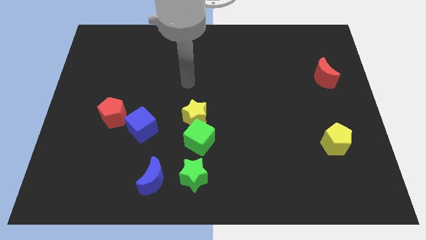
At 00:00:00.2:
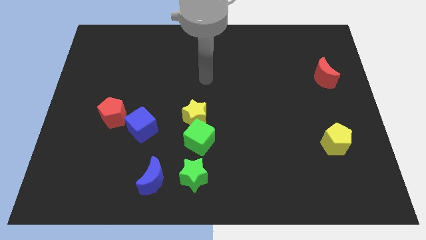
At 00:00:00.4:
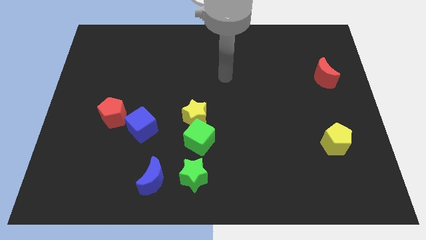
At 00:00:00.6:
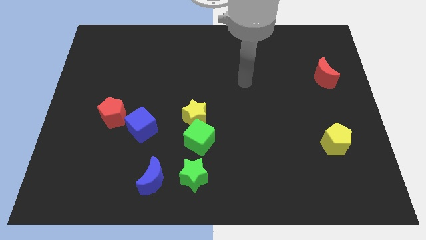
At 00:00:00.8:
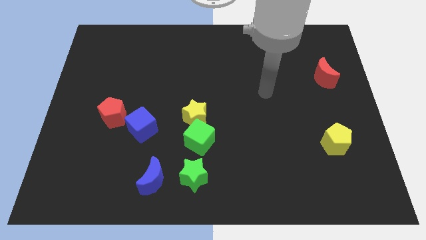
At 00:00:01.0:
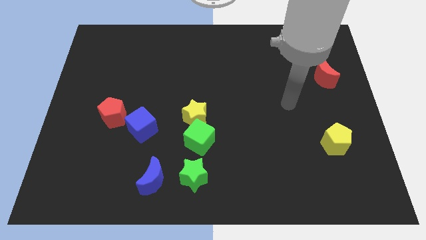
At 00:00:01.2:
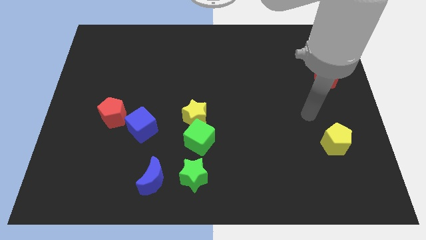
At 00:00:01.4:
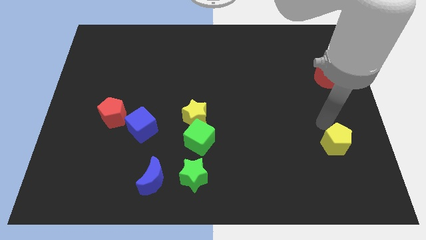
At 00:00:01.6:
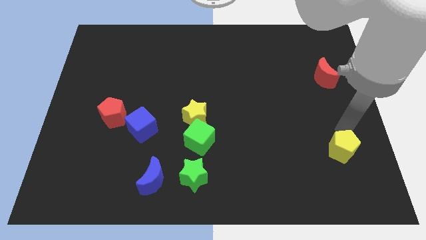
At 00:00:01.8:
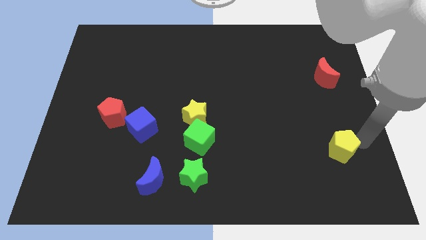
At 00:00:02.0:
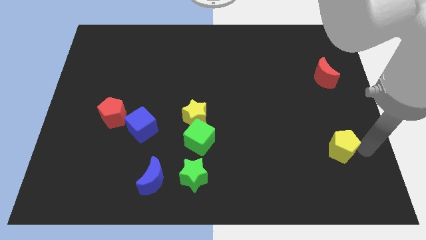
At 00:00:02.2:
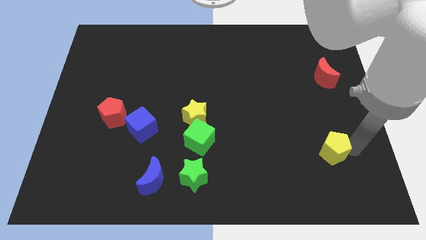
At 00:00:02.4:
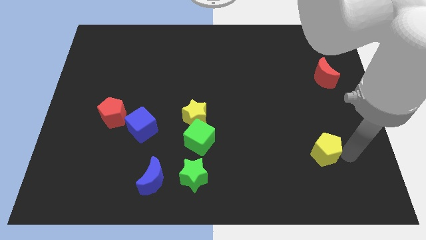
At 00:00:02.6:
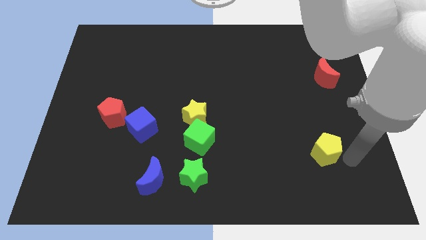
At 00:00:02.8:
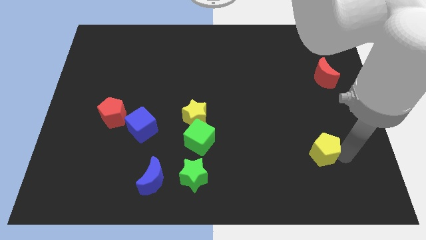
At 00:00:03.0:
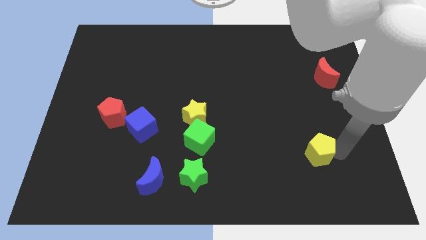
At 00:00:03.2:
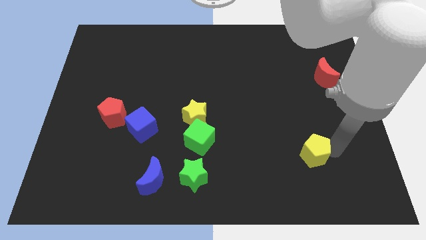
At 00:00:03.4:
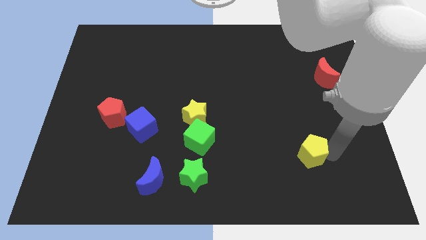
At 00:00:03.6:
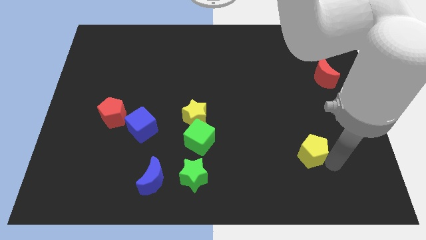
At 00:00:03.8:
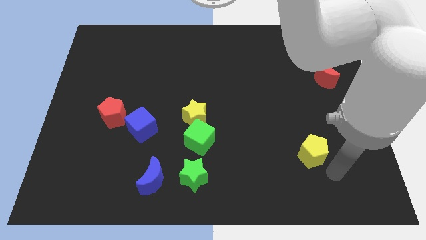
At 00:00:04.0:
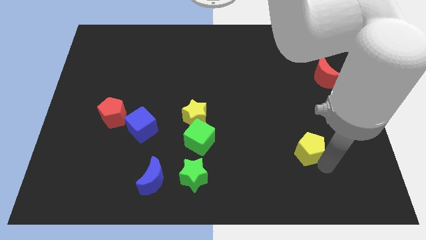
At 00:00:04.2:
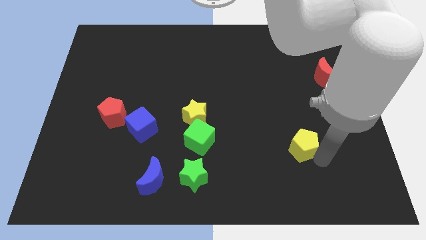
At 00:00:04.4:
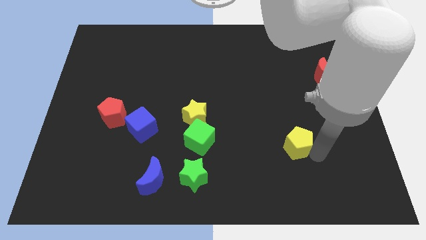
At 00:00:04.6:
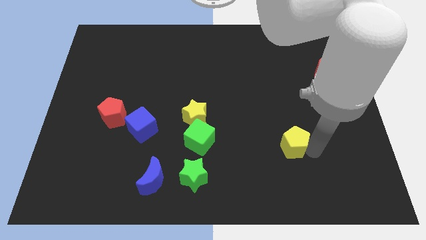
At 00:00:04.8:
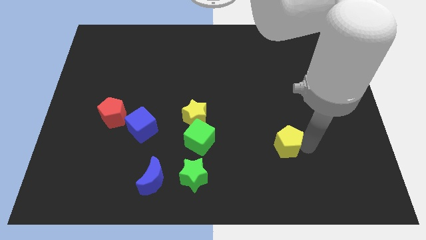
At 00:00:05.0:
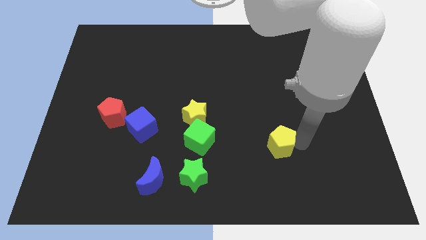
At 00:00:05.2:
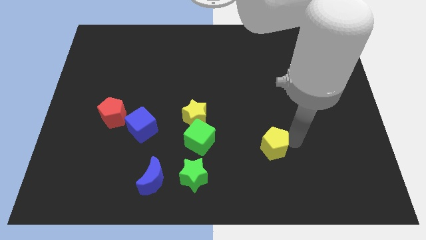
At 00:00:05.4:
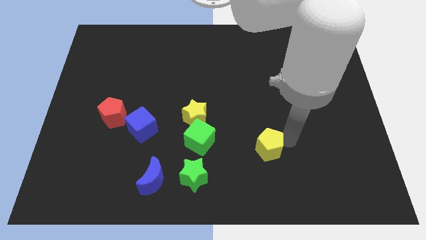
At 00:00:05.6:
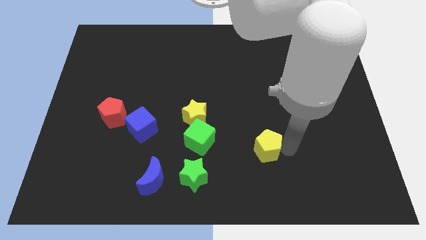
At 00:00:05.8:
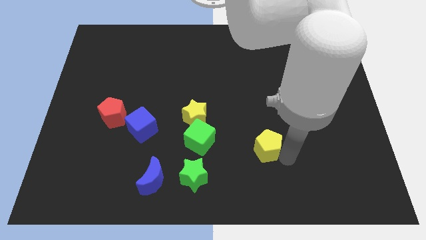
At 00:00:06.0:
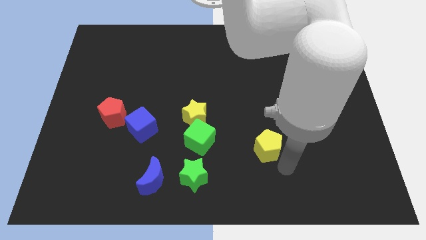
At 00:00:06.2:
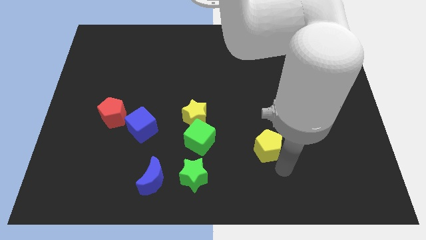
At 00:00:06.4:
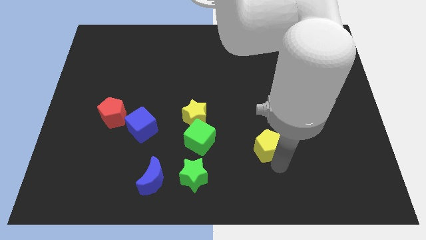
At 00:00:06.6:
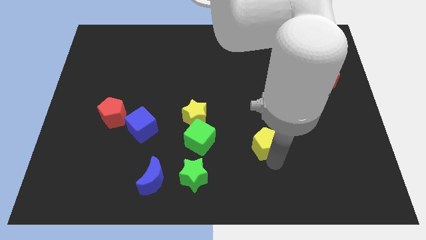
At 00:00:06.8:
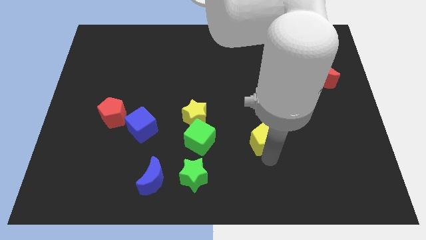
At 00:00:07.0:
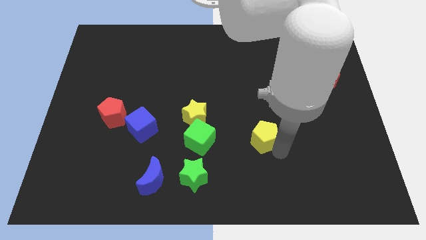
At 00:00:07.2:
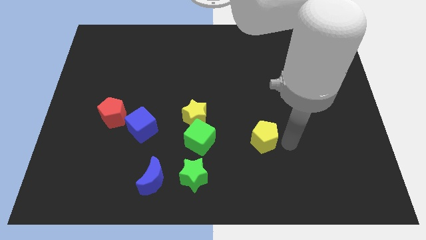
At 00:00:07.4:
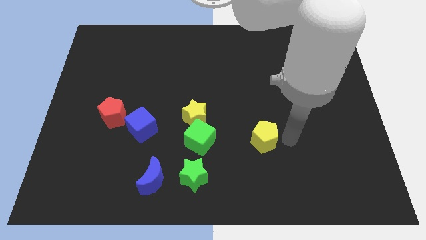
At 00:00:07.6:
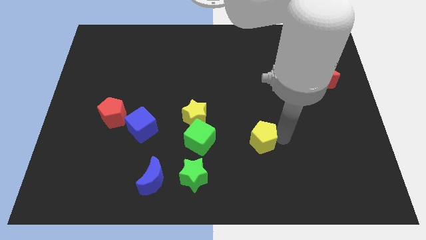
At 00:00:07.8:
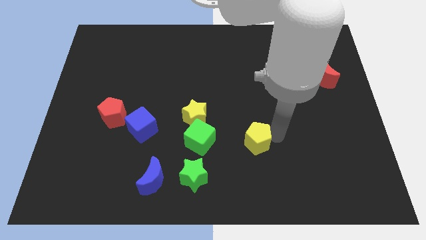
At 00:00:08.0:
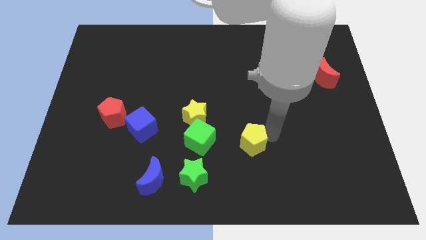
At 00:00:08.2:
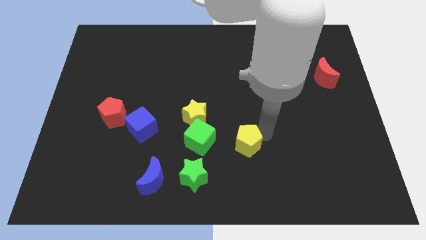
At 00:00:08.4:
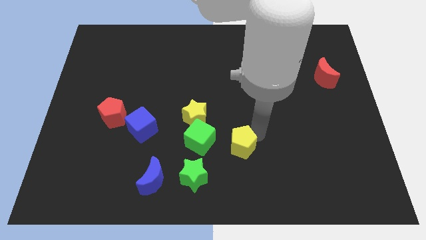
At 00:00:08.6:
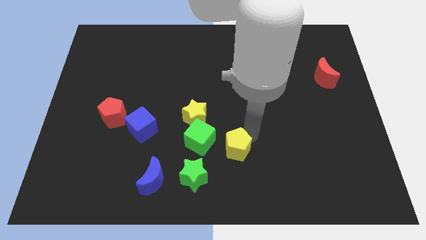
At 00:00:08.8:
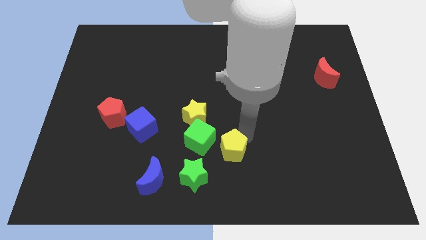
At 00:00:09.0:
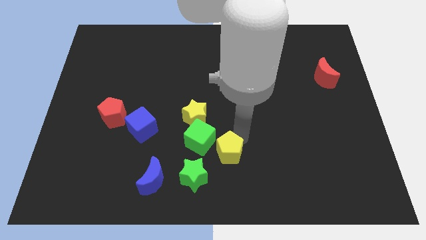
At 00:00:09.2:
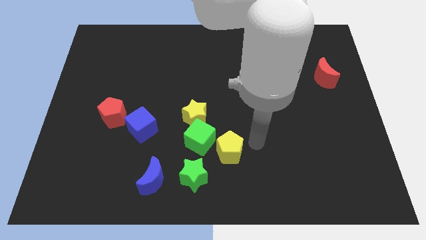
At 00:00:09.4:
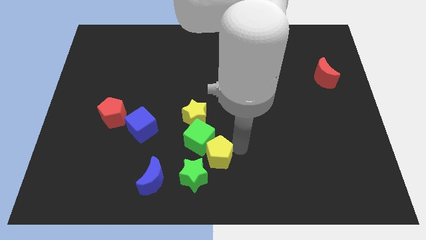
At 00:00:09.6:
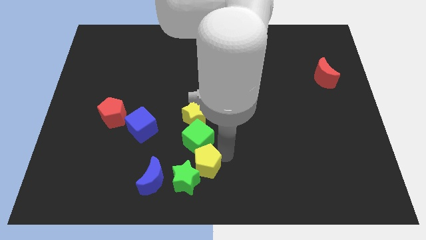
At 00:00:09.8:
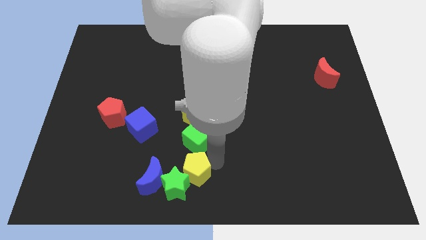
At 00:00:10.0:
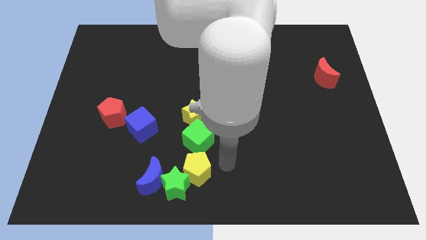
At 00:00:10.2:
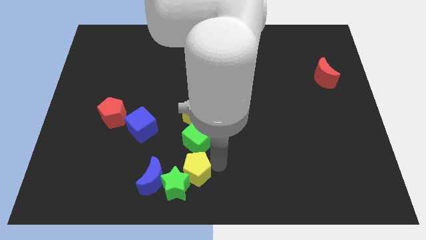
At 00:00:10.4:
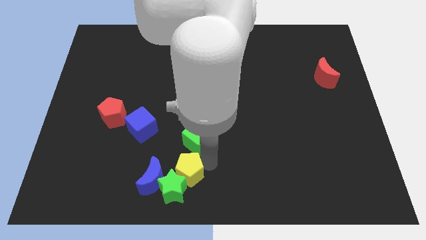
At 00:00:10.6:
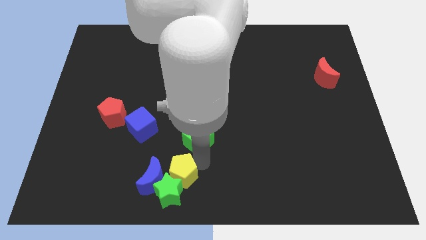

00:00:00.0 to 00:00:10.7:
put the yellow pentagon to the blue moon

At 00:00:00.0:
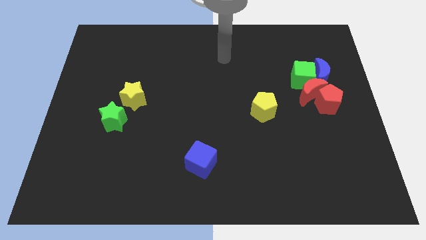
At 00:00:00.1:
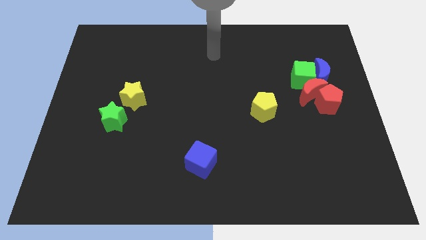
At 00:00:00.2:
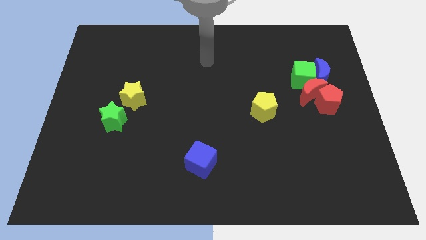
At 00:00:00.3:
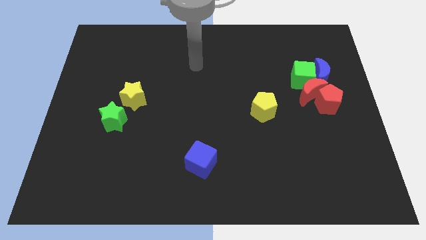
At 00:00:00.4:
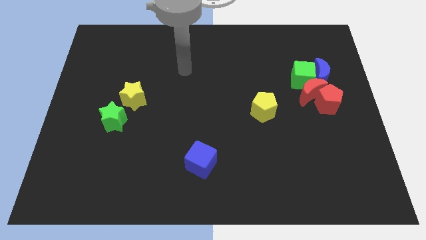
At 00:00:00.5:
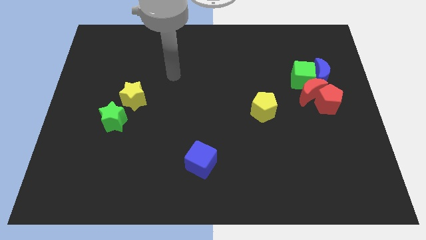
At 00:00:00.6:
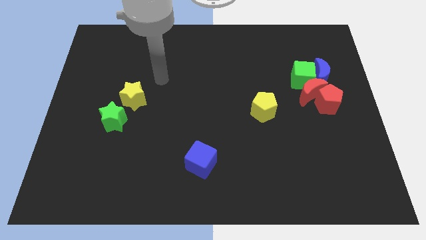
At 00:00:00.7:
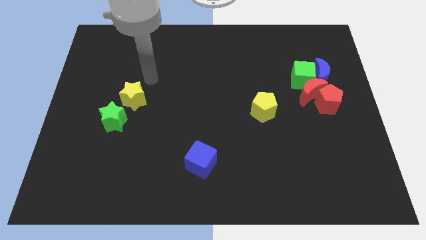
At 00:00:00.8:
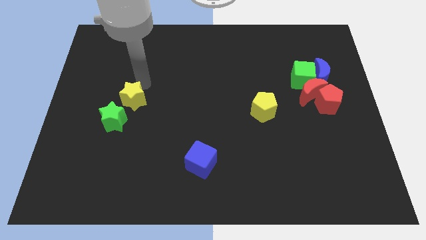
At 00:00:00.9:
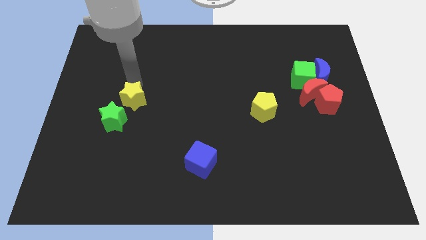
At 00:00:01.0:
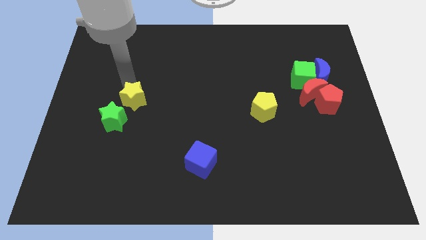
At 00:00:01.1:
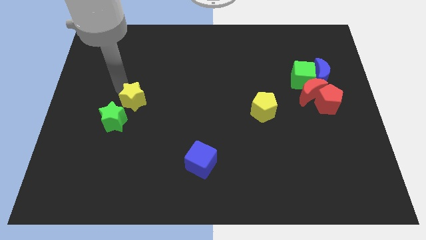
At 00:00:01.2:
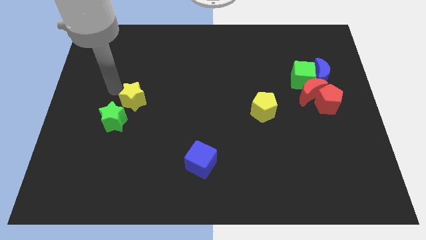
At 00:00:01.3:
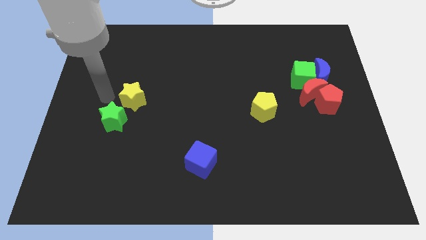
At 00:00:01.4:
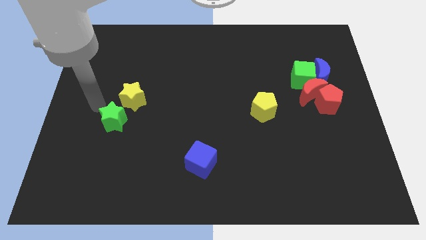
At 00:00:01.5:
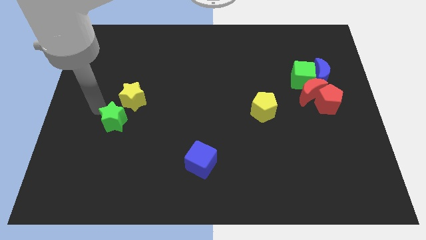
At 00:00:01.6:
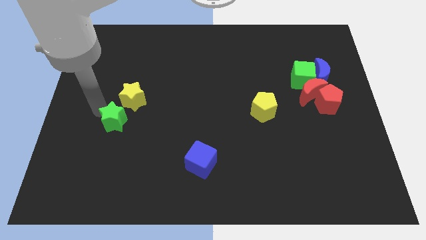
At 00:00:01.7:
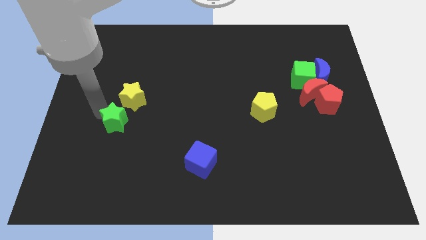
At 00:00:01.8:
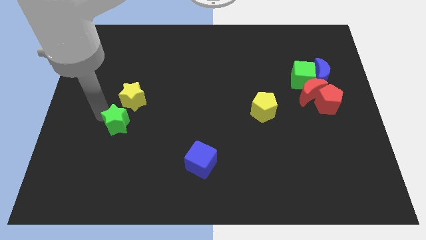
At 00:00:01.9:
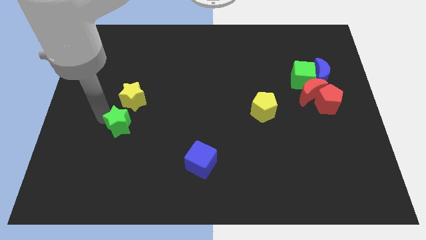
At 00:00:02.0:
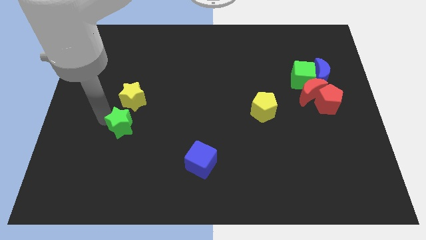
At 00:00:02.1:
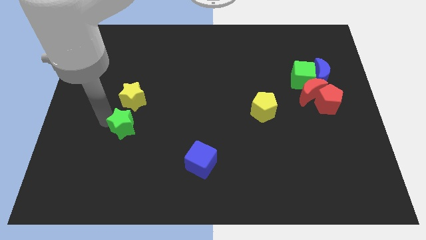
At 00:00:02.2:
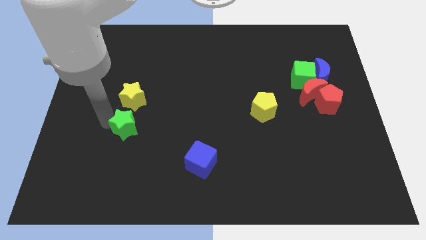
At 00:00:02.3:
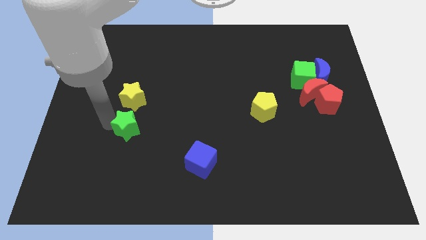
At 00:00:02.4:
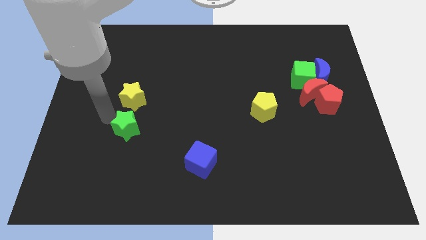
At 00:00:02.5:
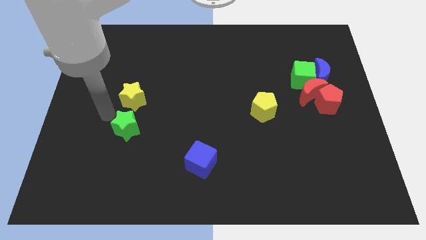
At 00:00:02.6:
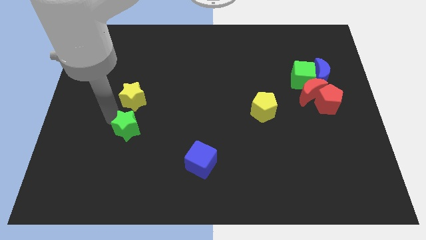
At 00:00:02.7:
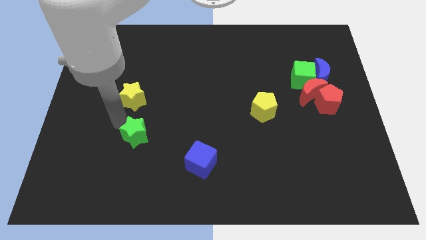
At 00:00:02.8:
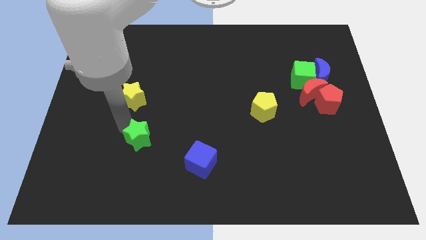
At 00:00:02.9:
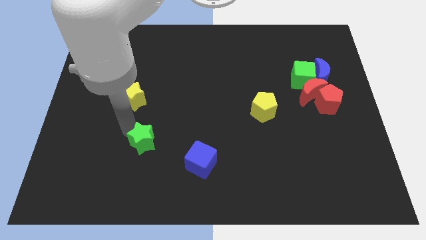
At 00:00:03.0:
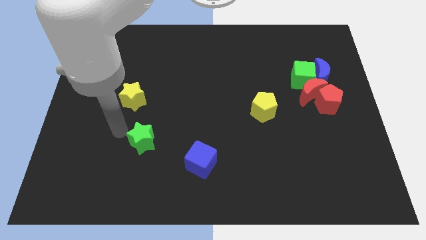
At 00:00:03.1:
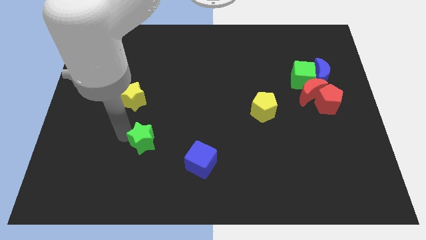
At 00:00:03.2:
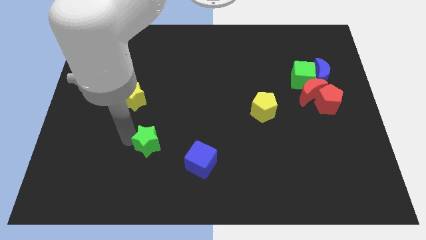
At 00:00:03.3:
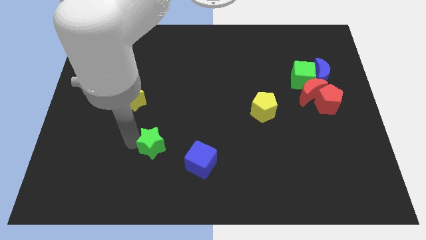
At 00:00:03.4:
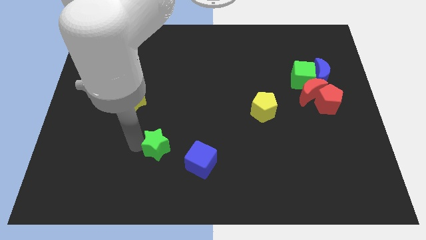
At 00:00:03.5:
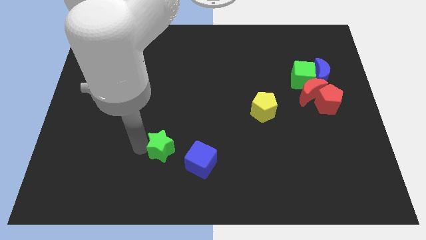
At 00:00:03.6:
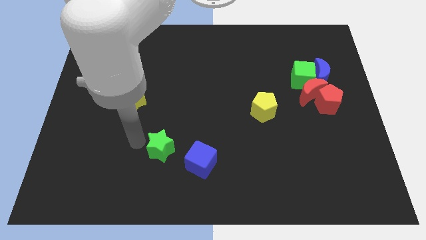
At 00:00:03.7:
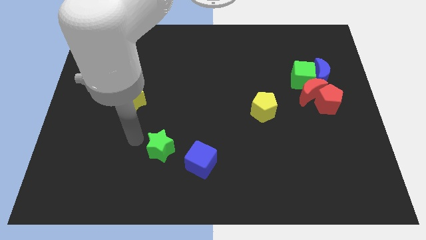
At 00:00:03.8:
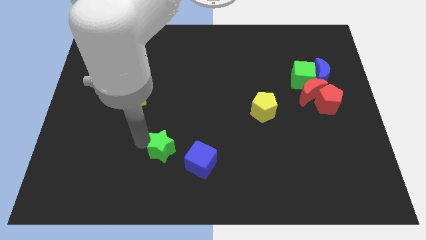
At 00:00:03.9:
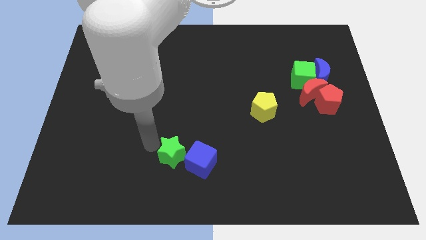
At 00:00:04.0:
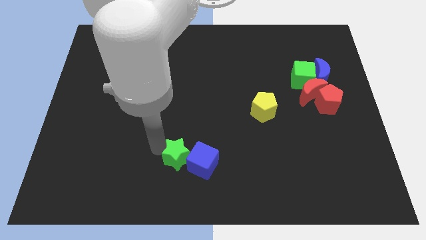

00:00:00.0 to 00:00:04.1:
put the green star towards the blue cube
